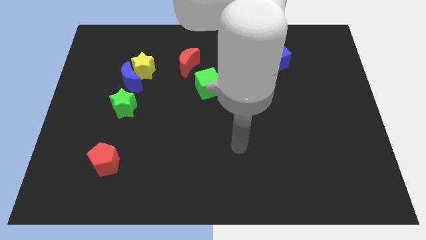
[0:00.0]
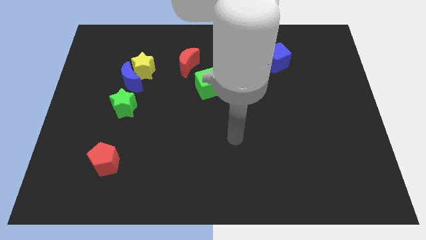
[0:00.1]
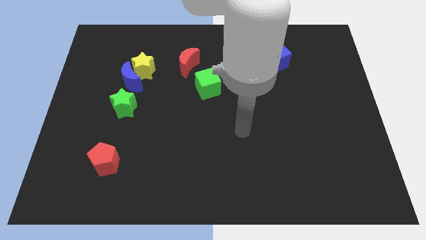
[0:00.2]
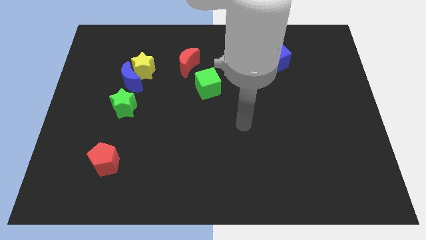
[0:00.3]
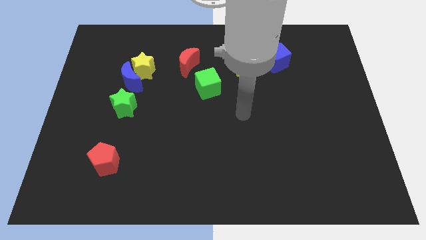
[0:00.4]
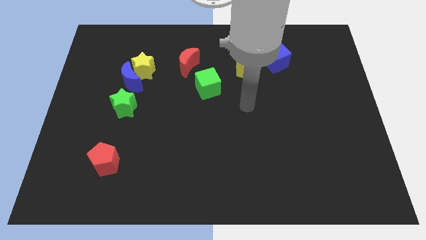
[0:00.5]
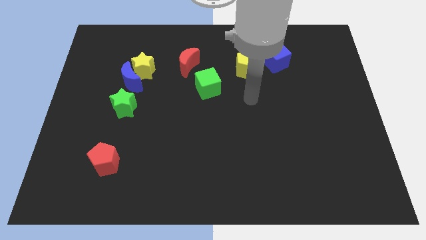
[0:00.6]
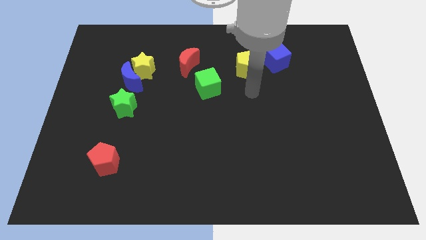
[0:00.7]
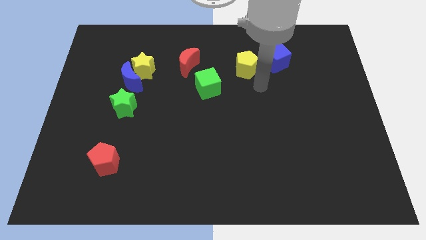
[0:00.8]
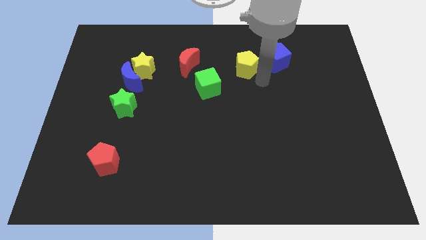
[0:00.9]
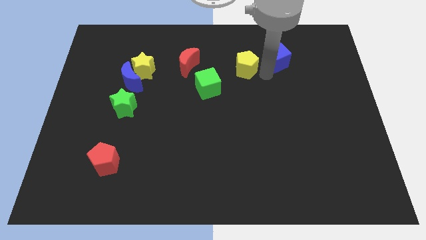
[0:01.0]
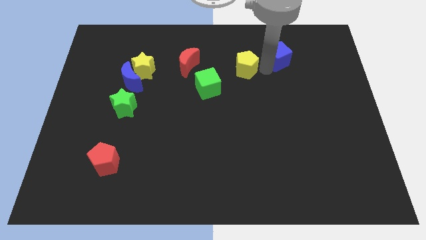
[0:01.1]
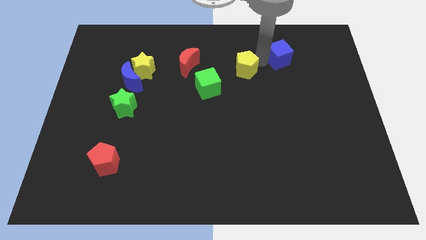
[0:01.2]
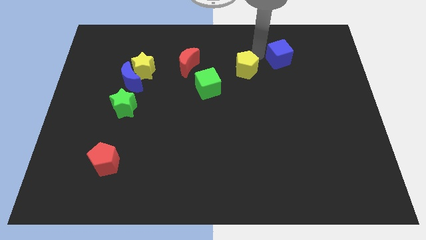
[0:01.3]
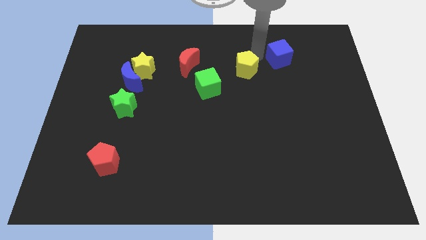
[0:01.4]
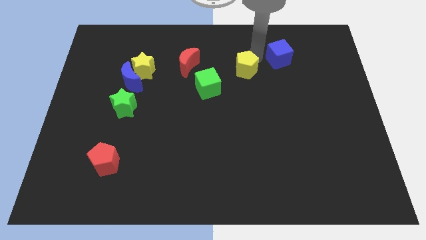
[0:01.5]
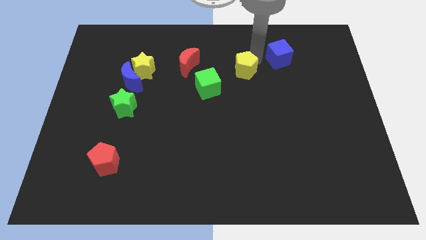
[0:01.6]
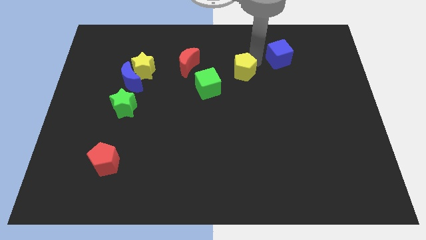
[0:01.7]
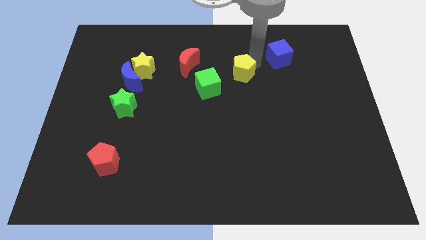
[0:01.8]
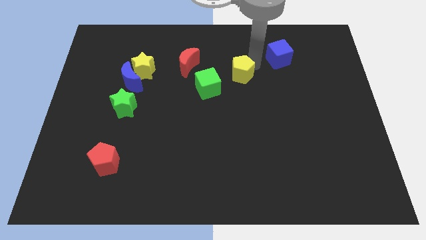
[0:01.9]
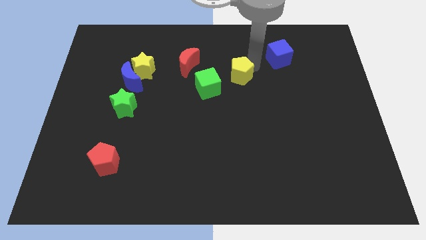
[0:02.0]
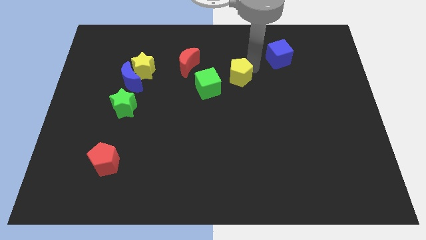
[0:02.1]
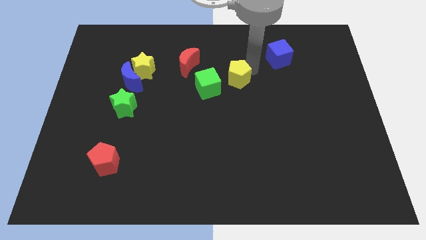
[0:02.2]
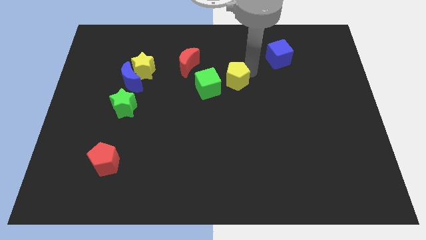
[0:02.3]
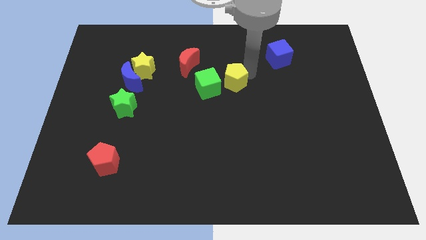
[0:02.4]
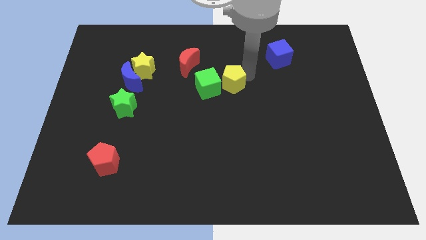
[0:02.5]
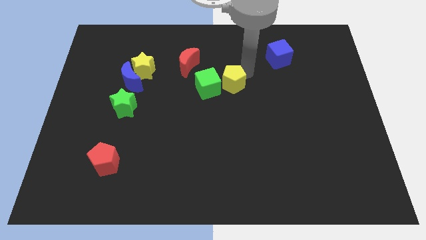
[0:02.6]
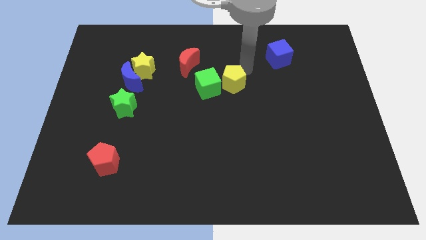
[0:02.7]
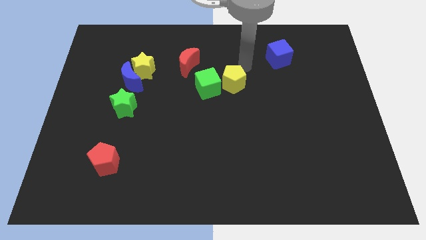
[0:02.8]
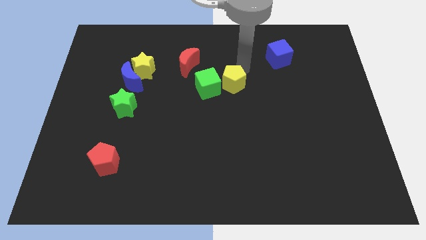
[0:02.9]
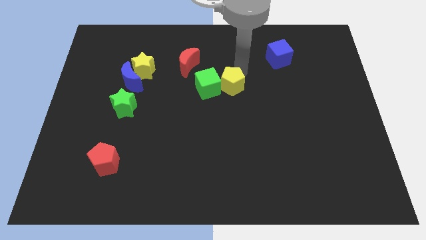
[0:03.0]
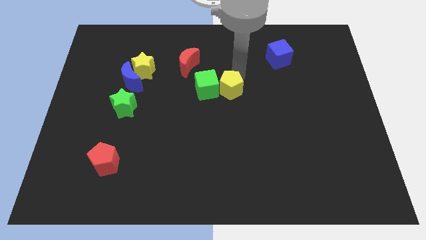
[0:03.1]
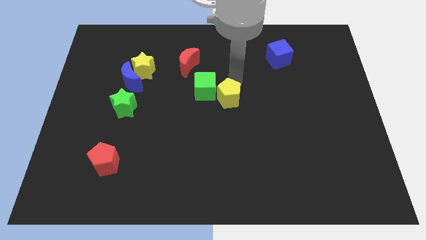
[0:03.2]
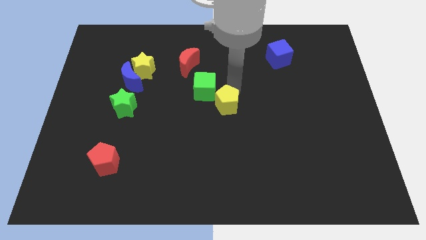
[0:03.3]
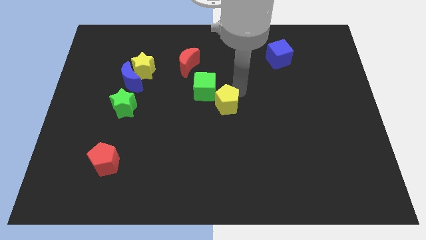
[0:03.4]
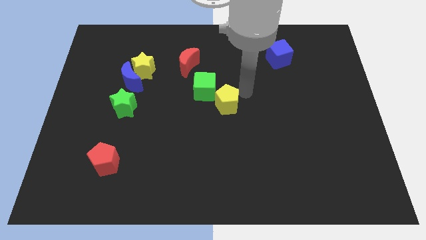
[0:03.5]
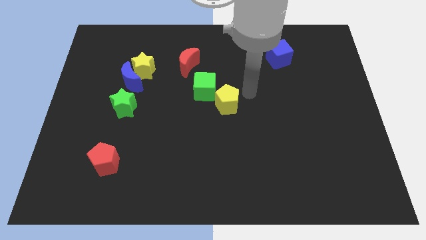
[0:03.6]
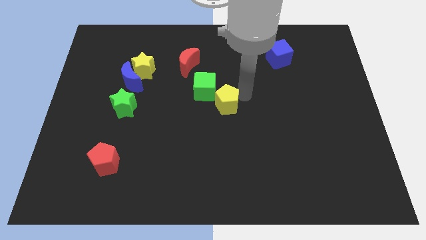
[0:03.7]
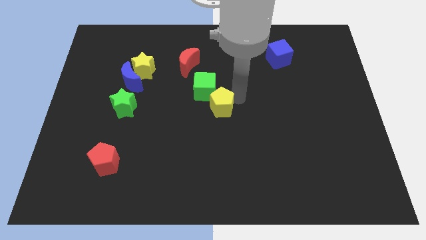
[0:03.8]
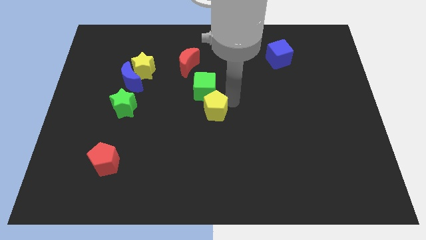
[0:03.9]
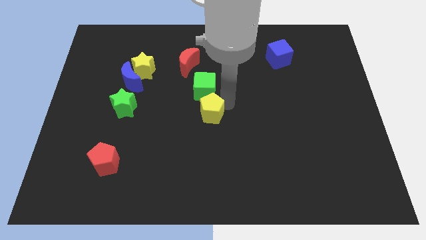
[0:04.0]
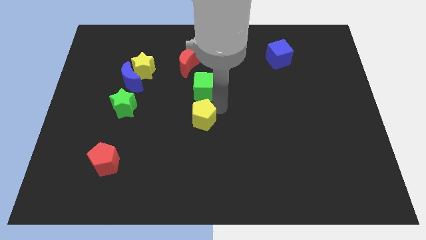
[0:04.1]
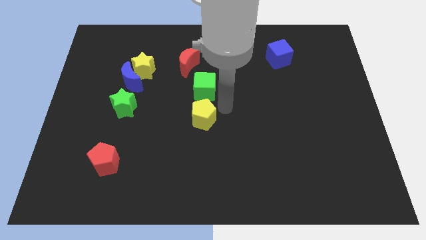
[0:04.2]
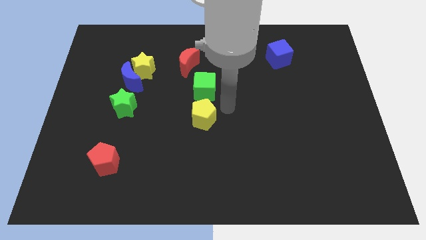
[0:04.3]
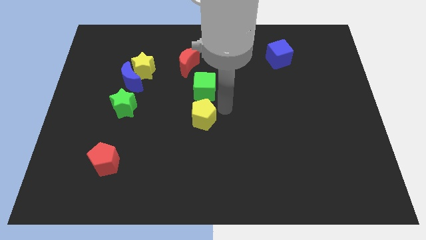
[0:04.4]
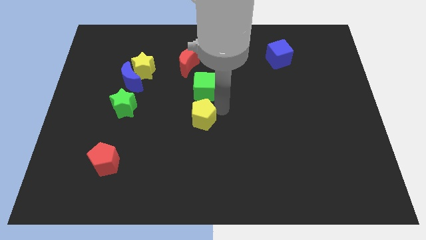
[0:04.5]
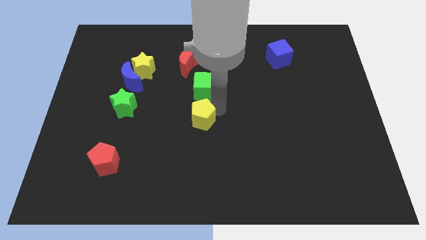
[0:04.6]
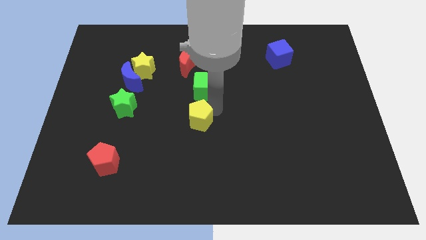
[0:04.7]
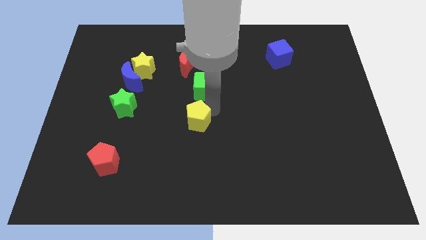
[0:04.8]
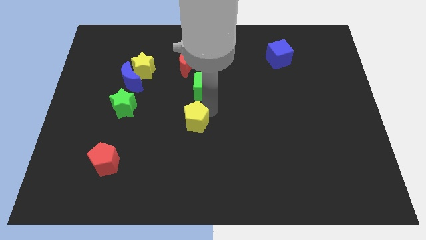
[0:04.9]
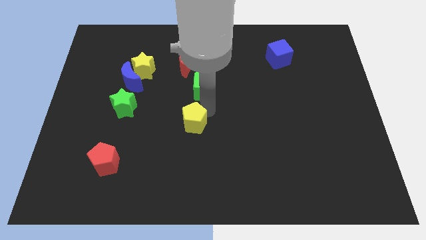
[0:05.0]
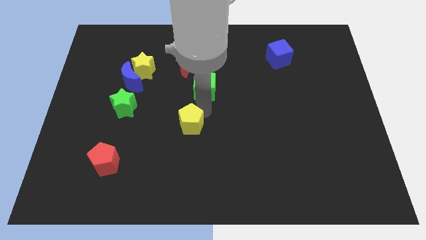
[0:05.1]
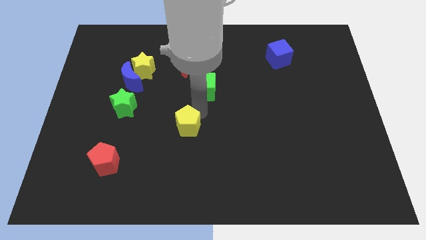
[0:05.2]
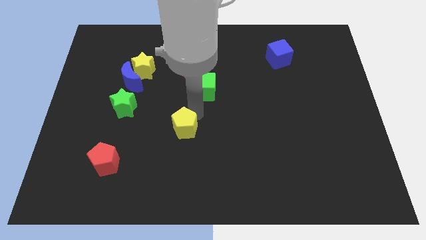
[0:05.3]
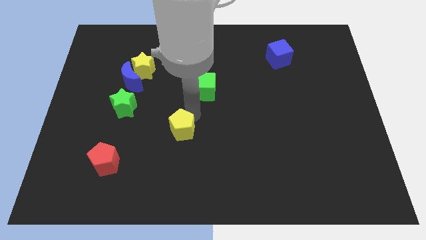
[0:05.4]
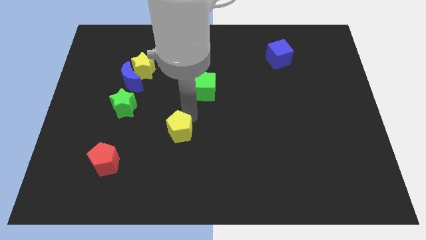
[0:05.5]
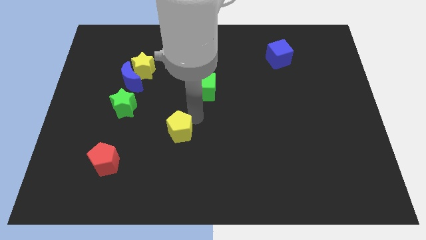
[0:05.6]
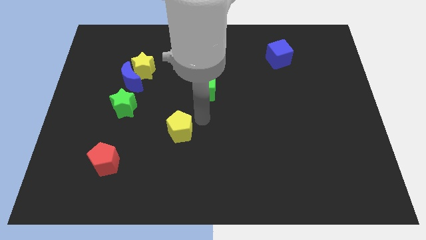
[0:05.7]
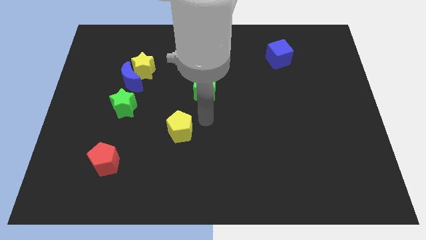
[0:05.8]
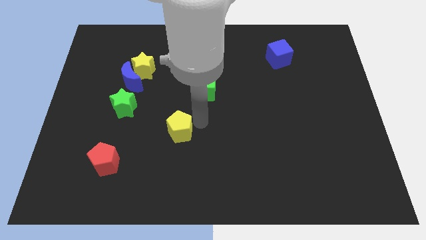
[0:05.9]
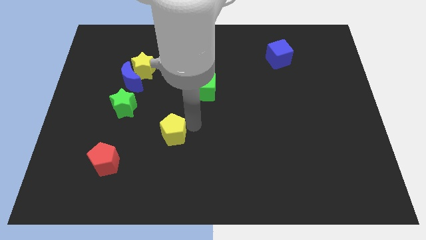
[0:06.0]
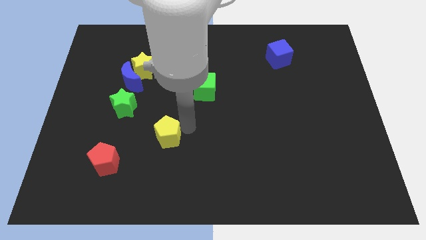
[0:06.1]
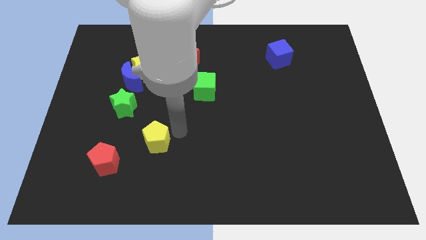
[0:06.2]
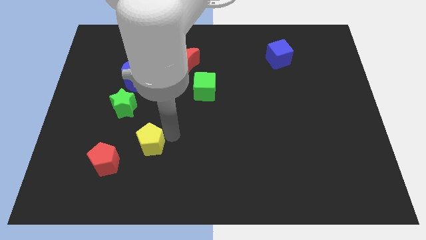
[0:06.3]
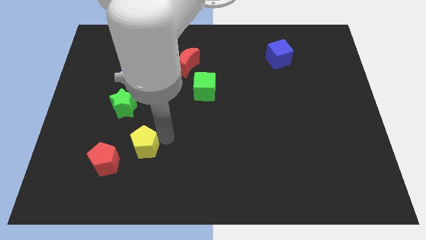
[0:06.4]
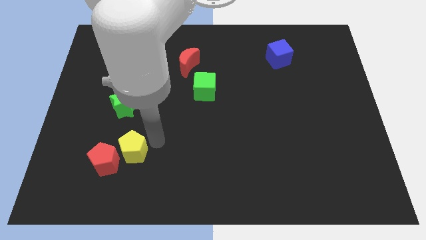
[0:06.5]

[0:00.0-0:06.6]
move the yellow pentagon towards the red pentagon

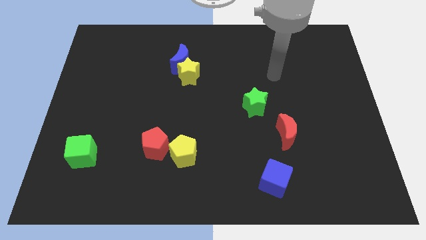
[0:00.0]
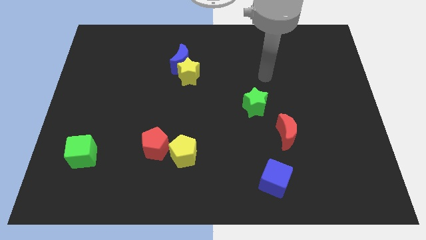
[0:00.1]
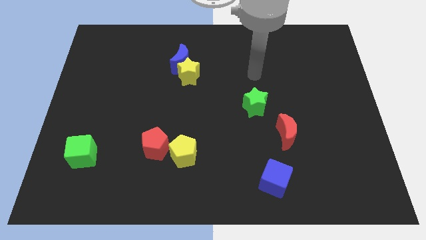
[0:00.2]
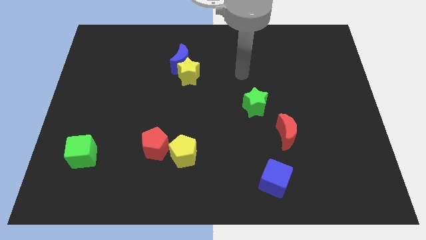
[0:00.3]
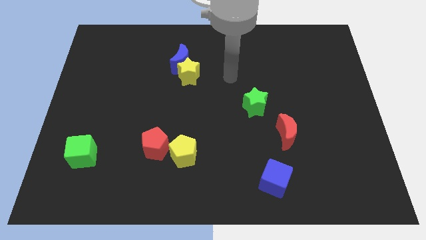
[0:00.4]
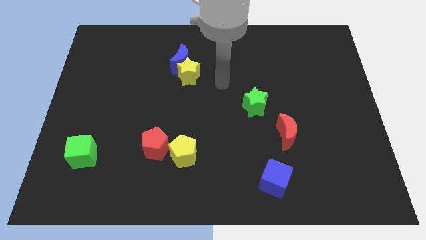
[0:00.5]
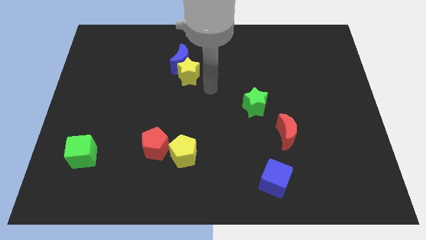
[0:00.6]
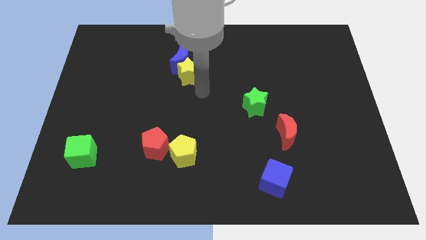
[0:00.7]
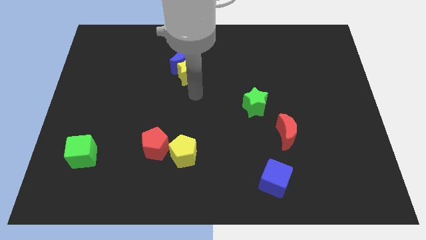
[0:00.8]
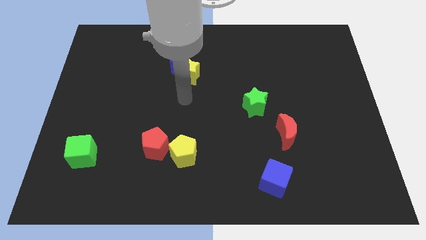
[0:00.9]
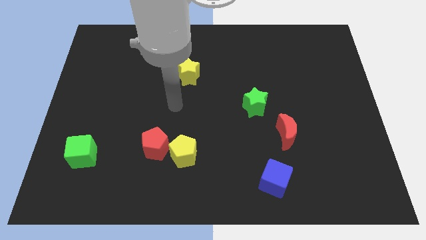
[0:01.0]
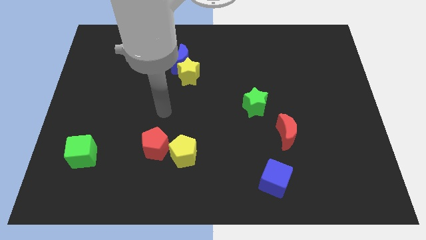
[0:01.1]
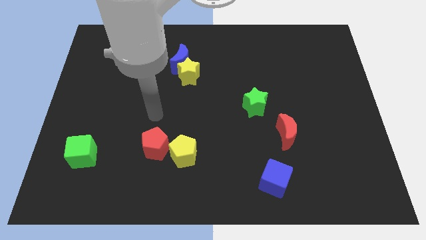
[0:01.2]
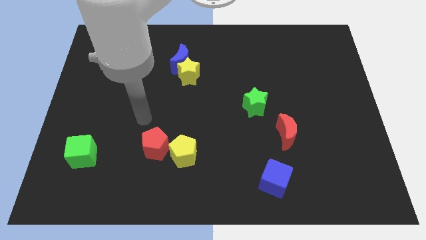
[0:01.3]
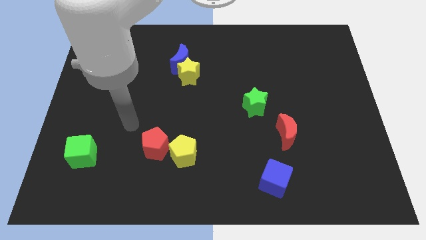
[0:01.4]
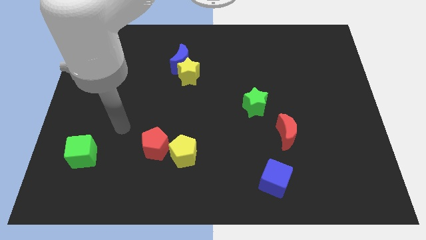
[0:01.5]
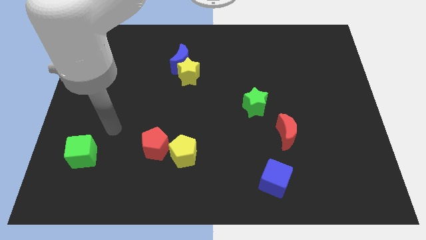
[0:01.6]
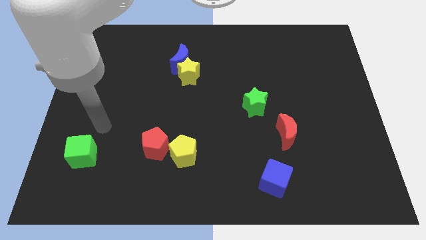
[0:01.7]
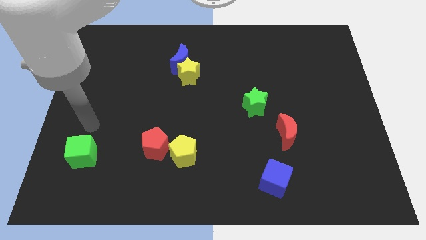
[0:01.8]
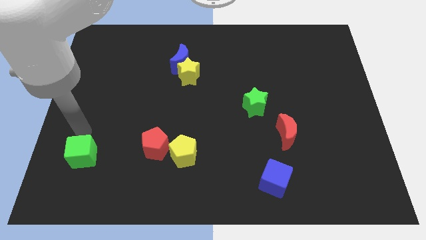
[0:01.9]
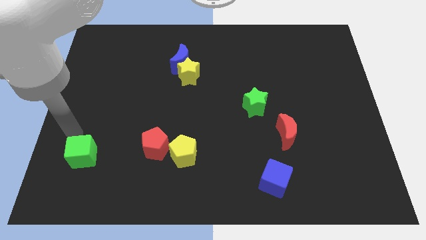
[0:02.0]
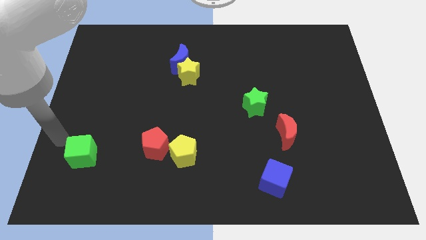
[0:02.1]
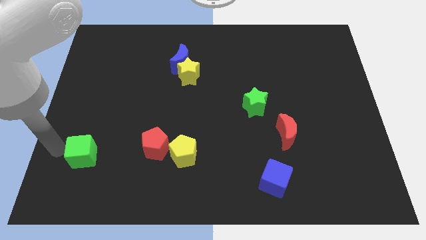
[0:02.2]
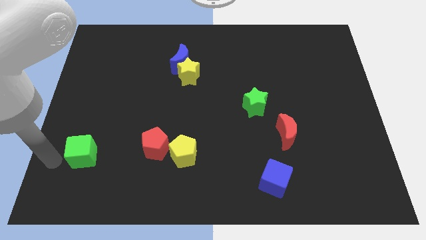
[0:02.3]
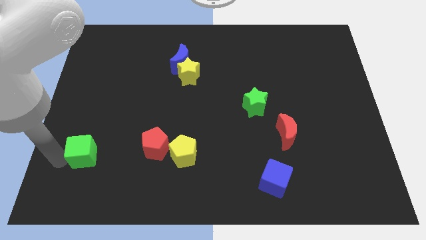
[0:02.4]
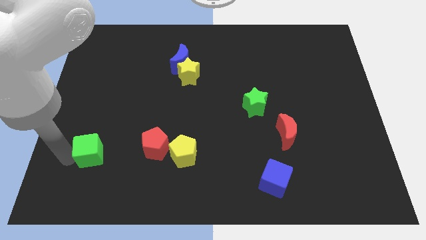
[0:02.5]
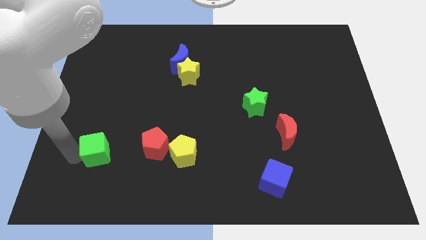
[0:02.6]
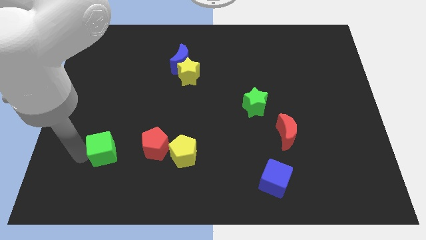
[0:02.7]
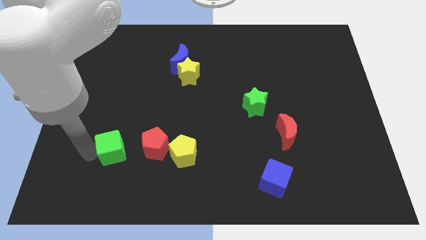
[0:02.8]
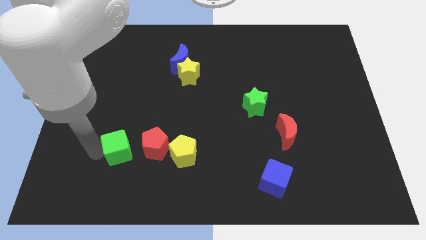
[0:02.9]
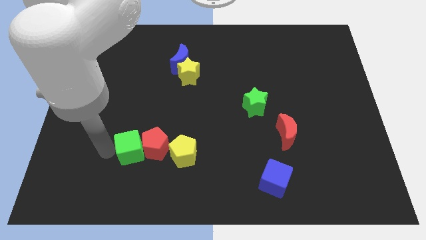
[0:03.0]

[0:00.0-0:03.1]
move the green cube close to the red pentagon
